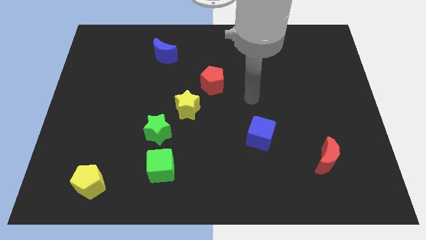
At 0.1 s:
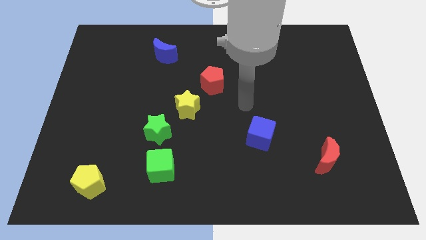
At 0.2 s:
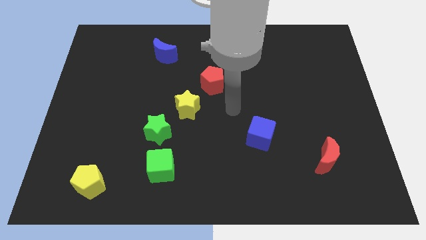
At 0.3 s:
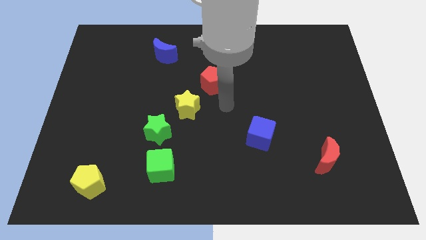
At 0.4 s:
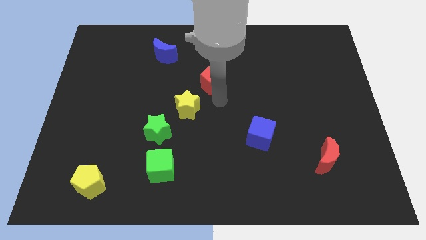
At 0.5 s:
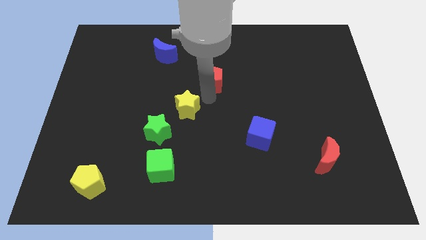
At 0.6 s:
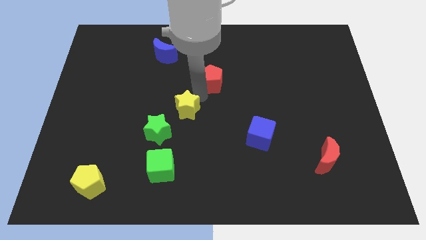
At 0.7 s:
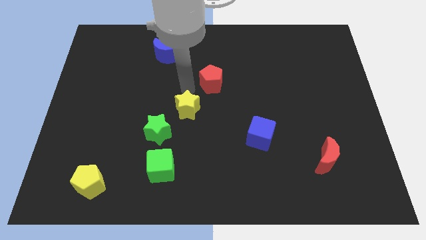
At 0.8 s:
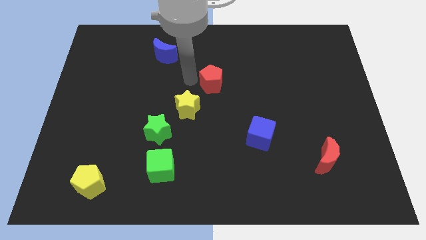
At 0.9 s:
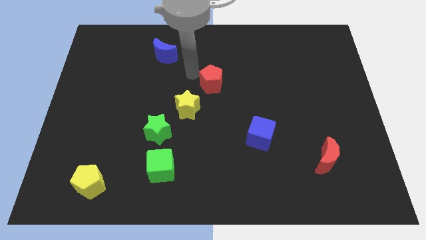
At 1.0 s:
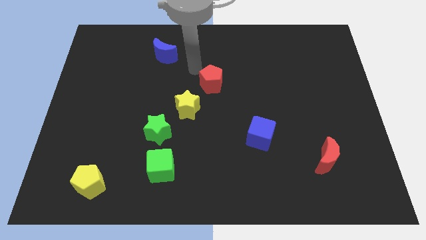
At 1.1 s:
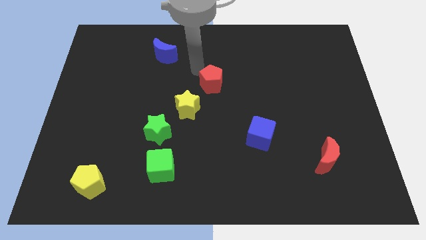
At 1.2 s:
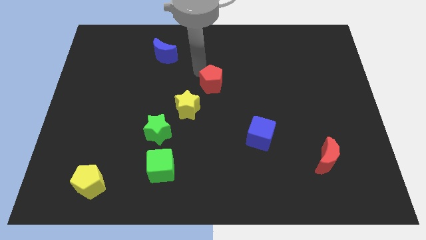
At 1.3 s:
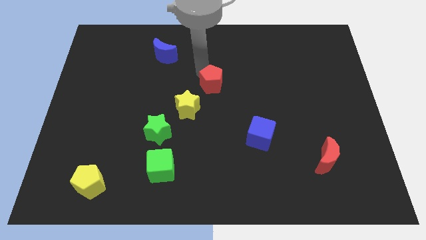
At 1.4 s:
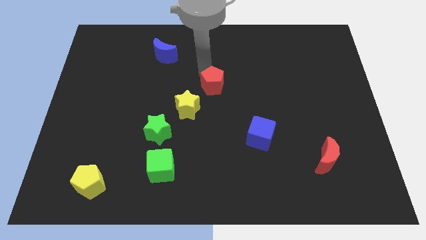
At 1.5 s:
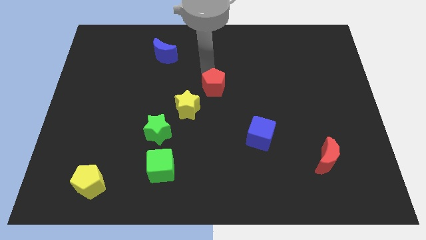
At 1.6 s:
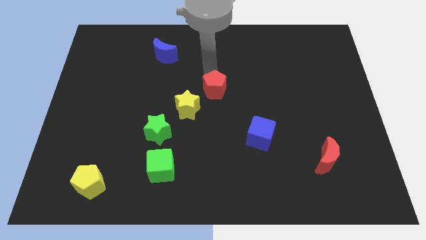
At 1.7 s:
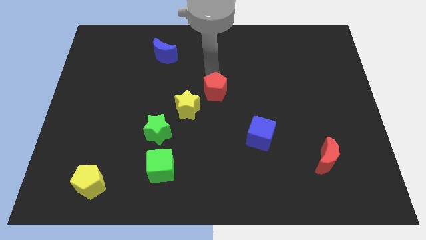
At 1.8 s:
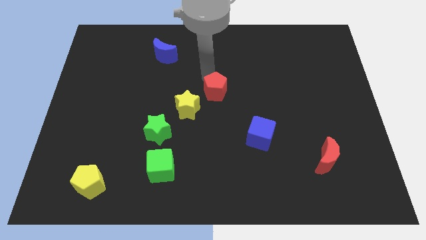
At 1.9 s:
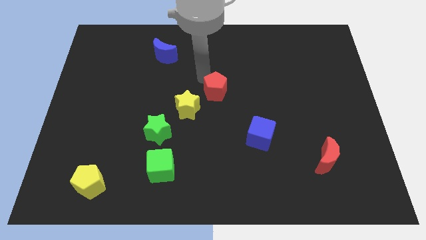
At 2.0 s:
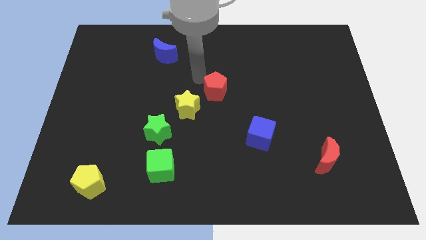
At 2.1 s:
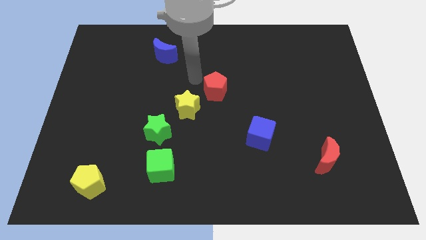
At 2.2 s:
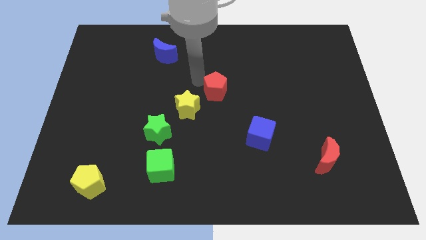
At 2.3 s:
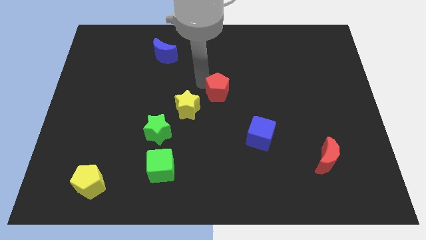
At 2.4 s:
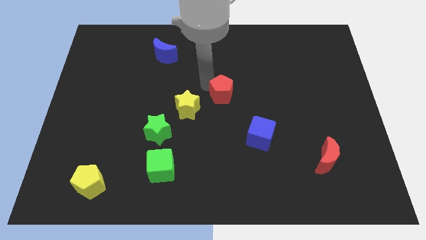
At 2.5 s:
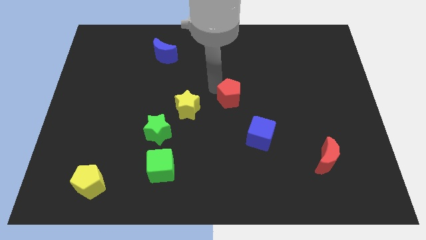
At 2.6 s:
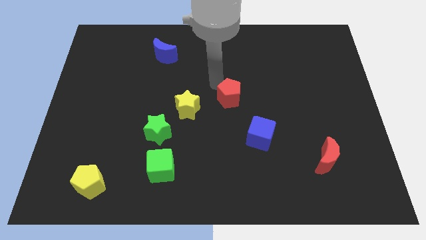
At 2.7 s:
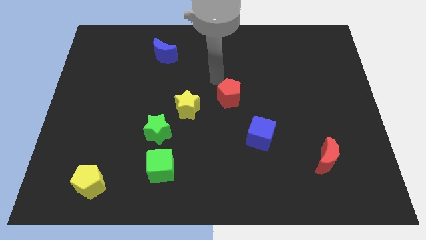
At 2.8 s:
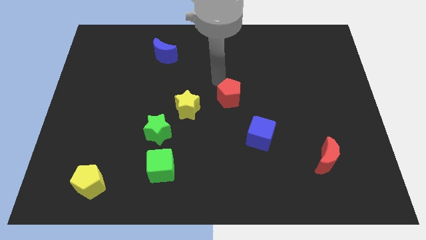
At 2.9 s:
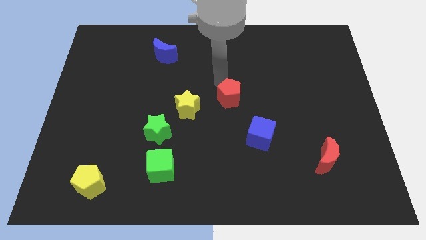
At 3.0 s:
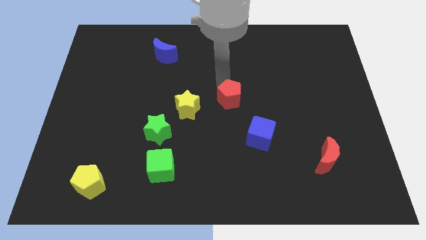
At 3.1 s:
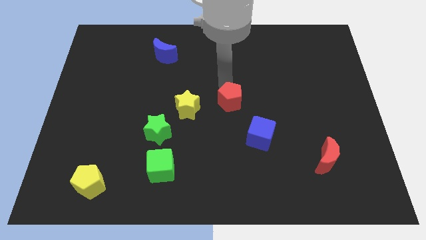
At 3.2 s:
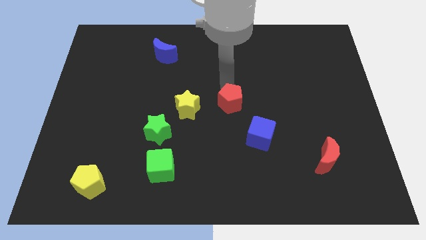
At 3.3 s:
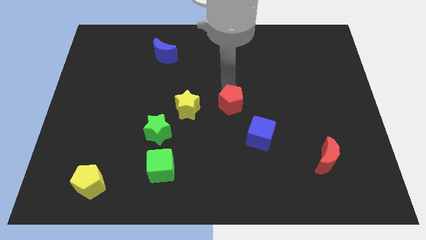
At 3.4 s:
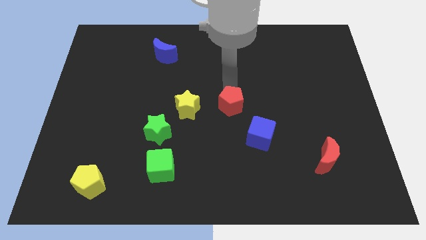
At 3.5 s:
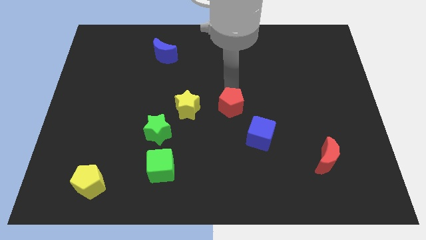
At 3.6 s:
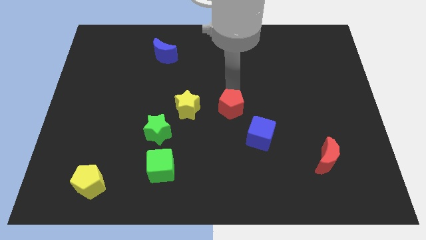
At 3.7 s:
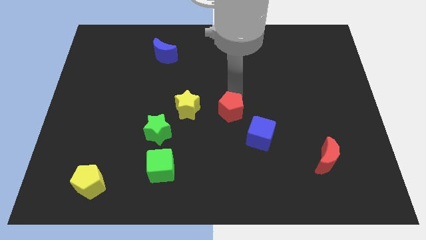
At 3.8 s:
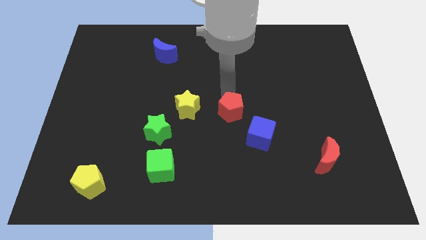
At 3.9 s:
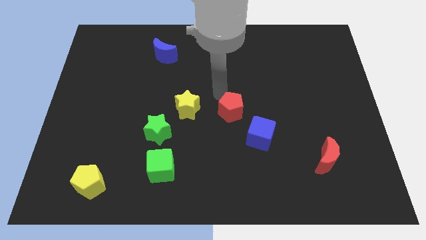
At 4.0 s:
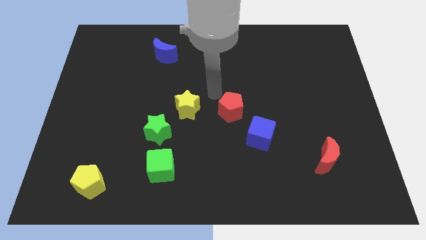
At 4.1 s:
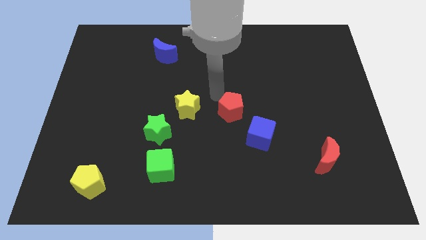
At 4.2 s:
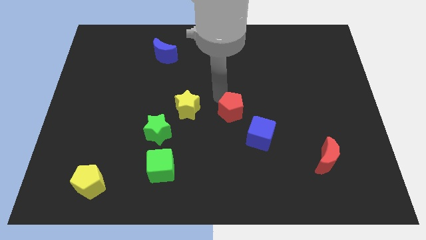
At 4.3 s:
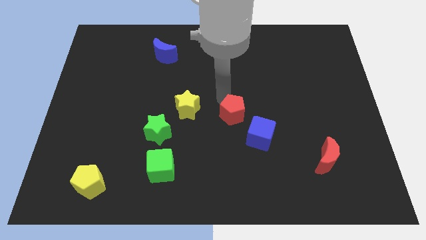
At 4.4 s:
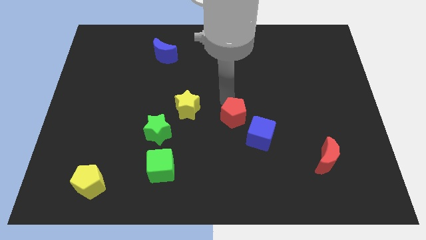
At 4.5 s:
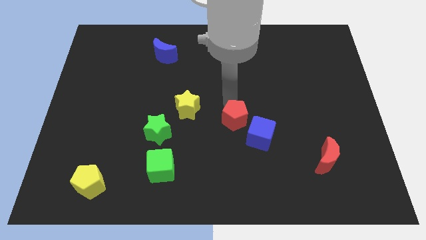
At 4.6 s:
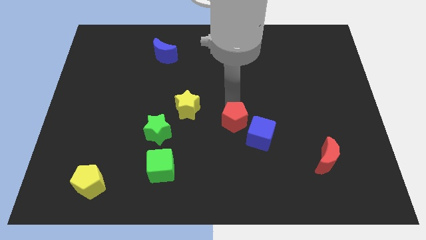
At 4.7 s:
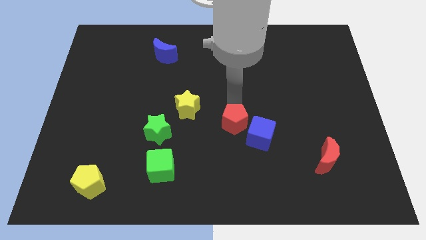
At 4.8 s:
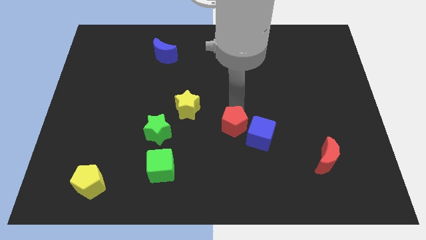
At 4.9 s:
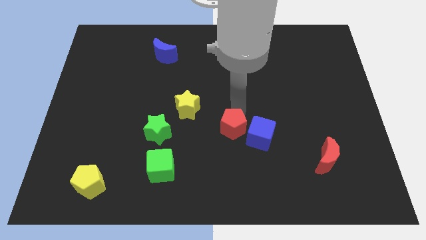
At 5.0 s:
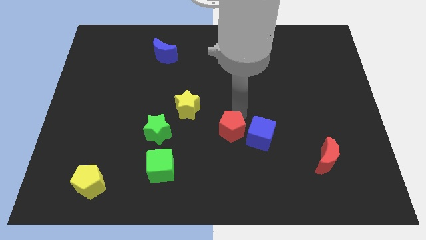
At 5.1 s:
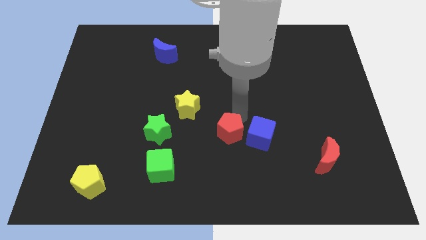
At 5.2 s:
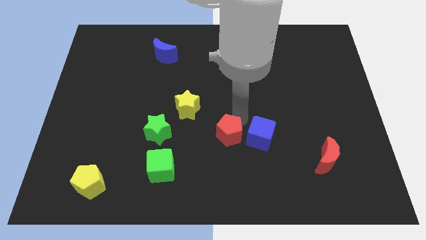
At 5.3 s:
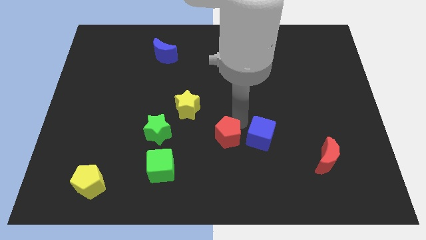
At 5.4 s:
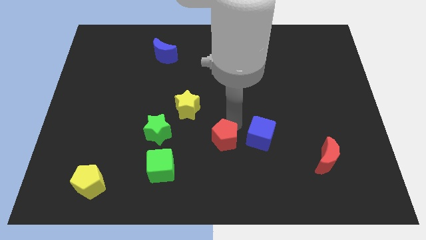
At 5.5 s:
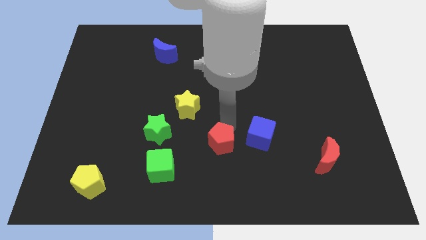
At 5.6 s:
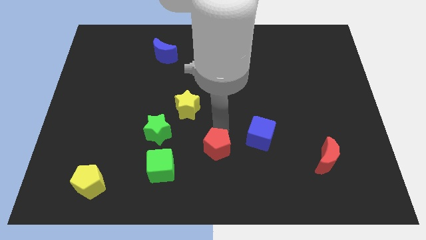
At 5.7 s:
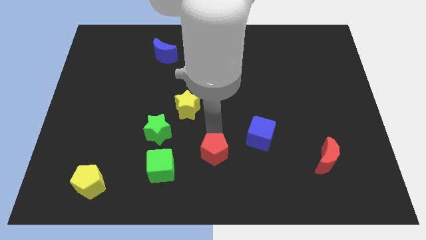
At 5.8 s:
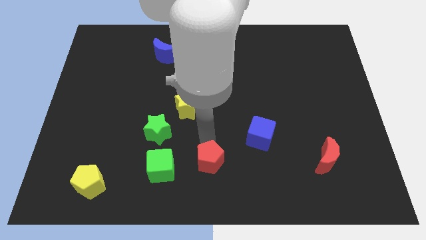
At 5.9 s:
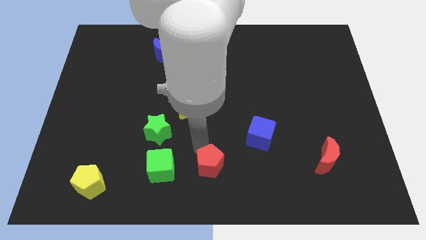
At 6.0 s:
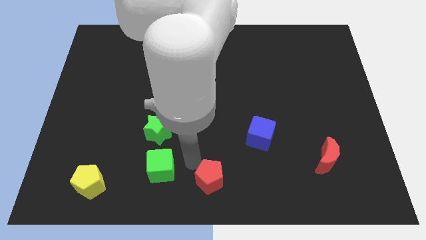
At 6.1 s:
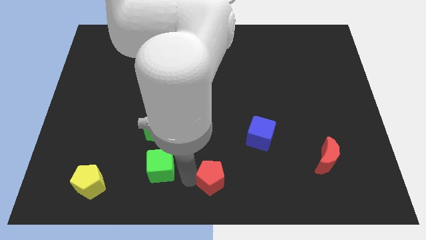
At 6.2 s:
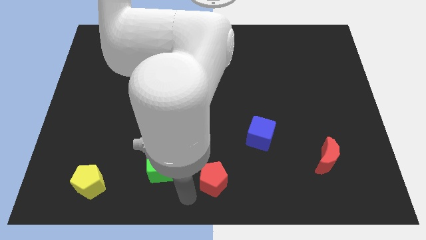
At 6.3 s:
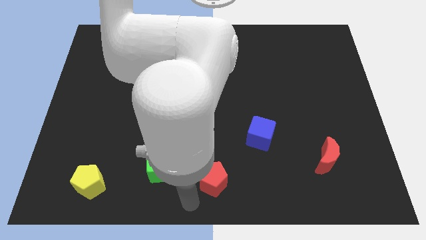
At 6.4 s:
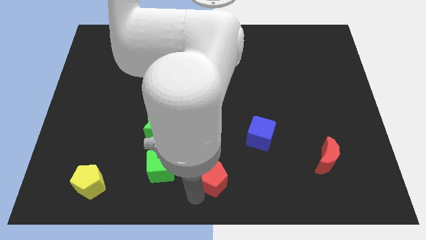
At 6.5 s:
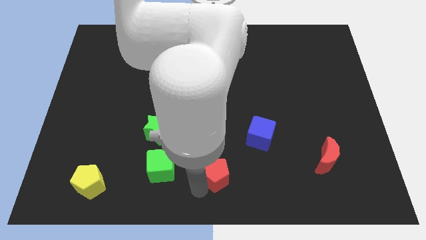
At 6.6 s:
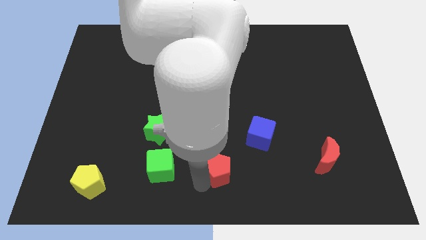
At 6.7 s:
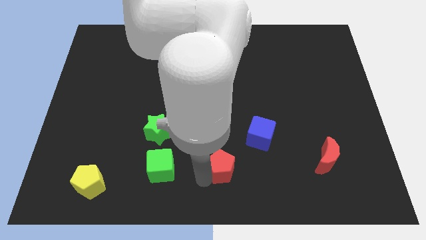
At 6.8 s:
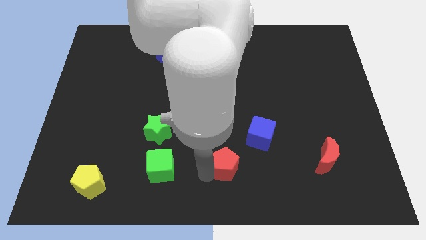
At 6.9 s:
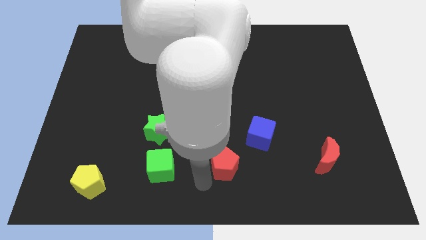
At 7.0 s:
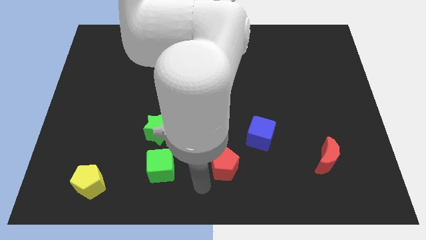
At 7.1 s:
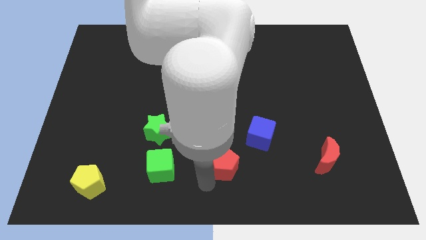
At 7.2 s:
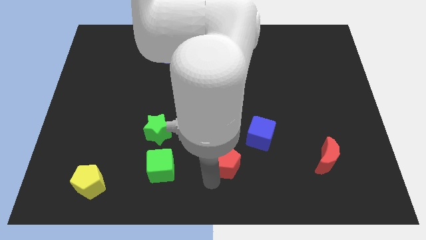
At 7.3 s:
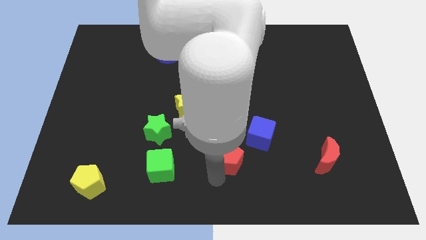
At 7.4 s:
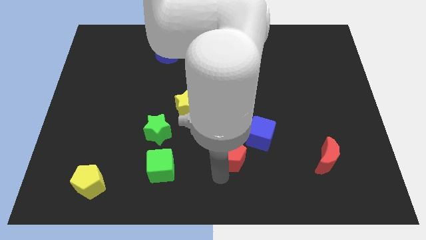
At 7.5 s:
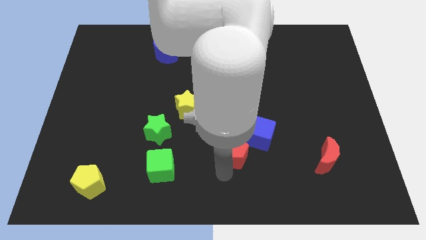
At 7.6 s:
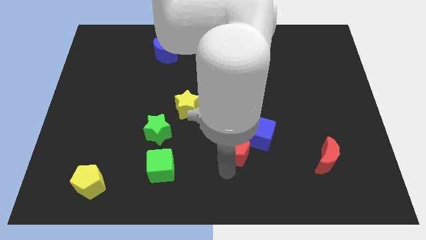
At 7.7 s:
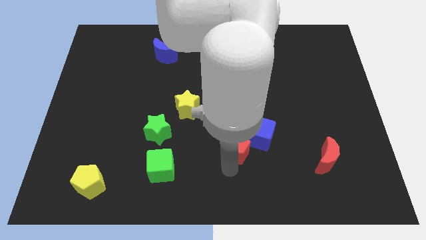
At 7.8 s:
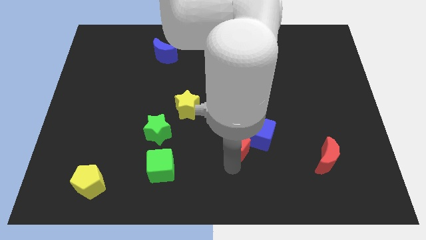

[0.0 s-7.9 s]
move the red pentagon close to the blue cube
